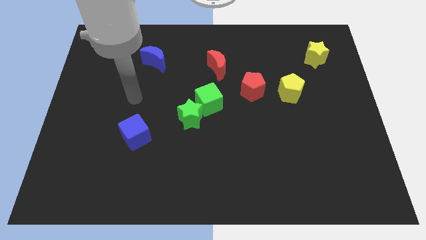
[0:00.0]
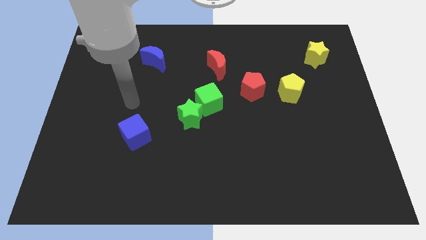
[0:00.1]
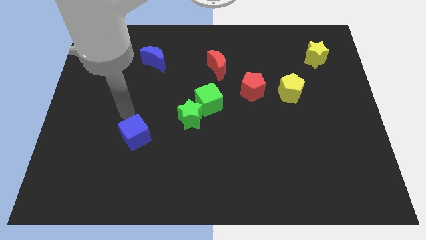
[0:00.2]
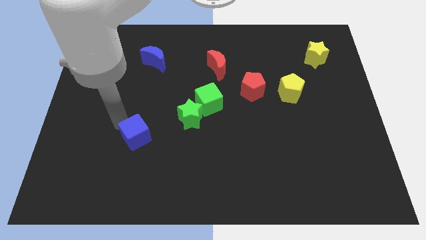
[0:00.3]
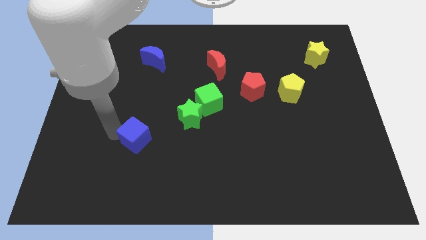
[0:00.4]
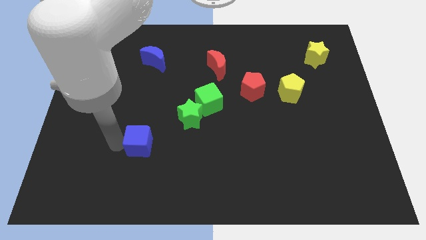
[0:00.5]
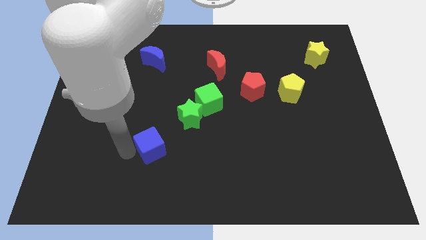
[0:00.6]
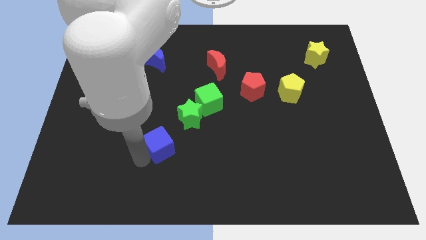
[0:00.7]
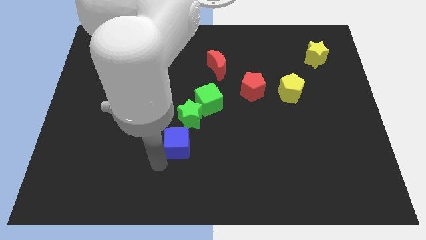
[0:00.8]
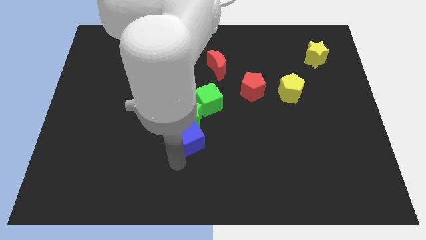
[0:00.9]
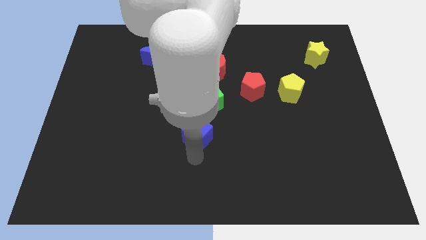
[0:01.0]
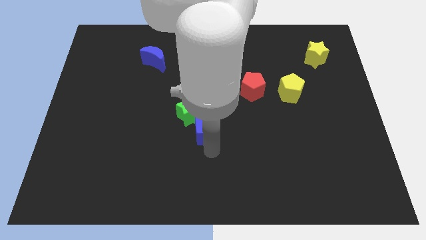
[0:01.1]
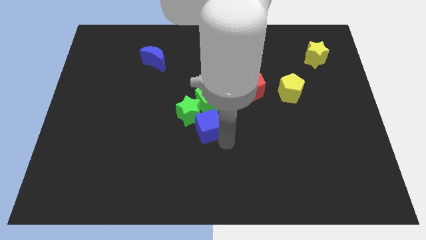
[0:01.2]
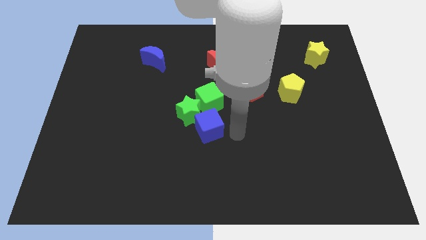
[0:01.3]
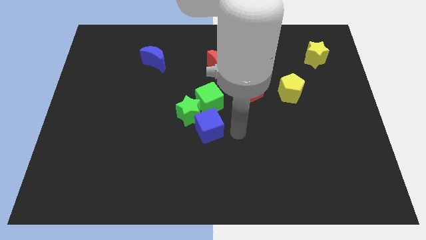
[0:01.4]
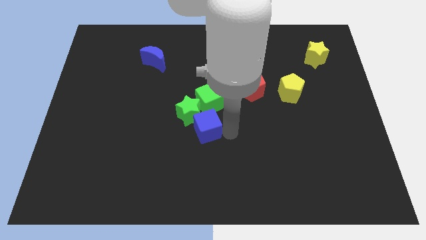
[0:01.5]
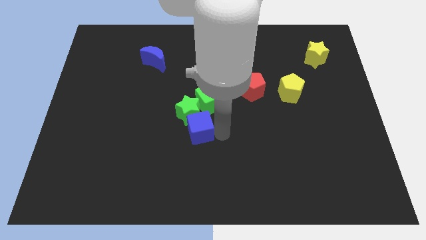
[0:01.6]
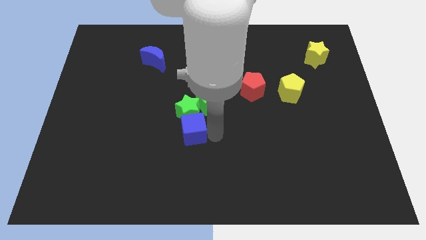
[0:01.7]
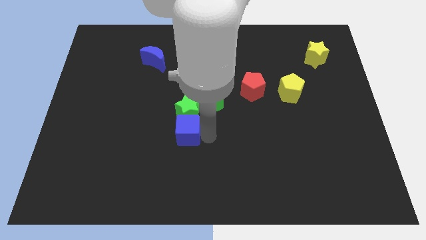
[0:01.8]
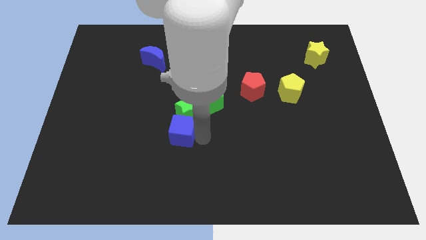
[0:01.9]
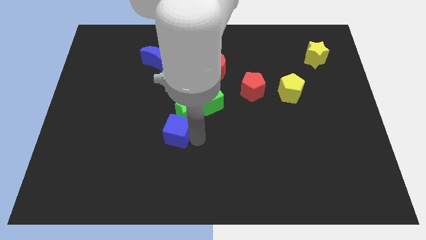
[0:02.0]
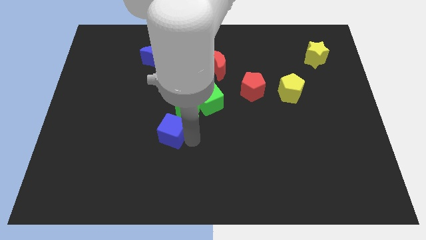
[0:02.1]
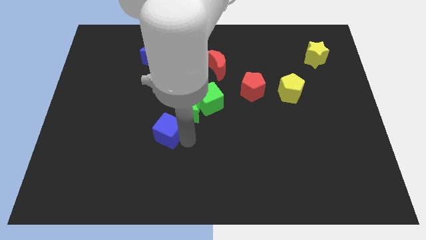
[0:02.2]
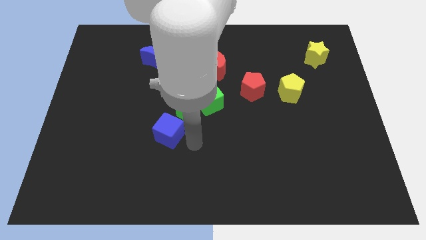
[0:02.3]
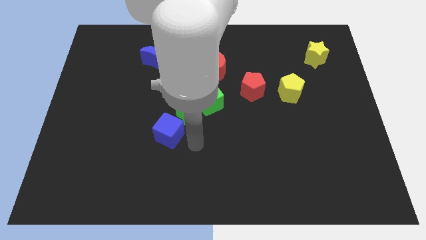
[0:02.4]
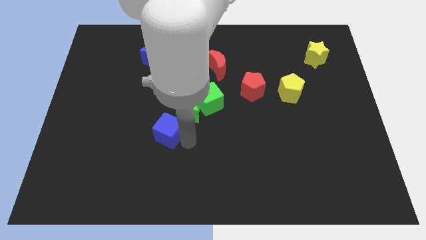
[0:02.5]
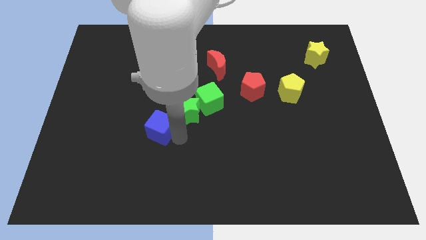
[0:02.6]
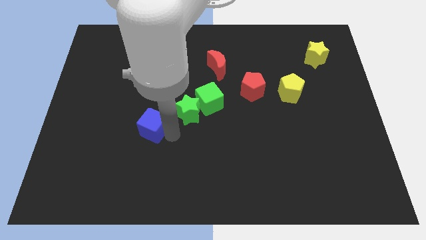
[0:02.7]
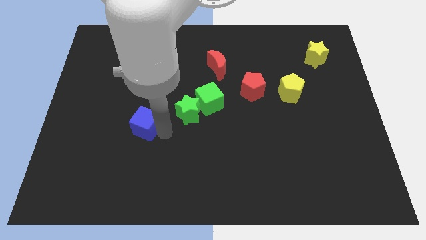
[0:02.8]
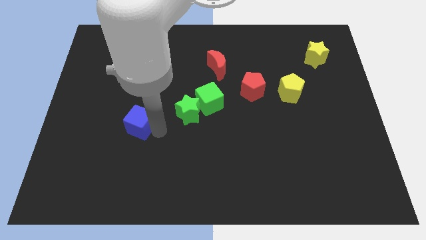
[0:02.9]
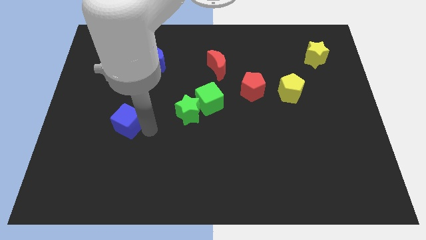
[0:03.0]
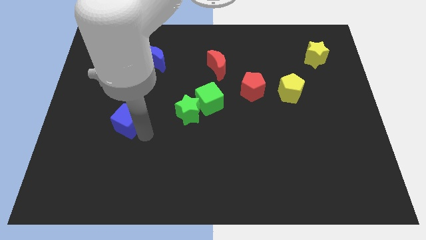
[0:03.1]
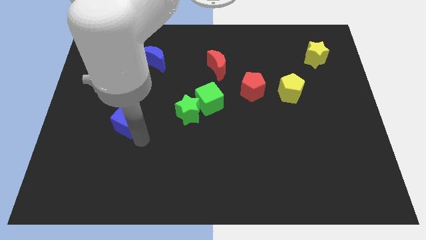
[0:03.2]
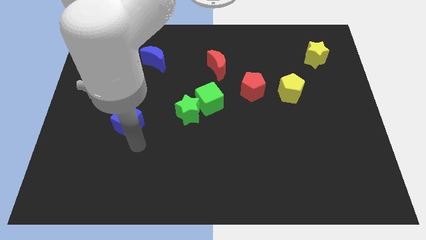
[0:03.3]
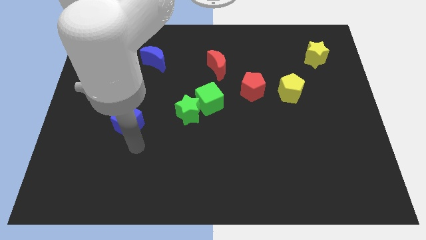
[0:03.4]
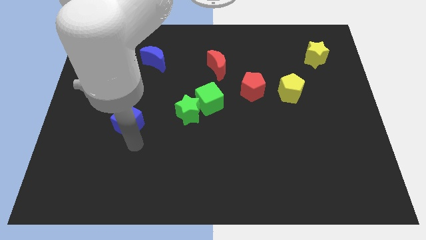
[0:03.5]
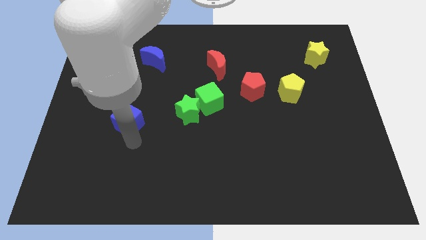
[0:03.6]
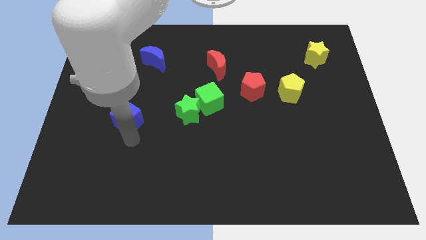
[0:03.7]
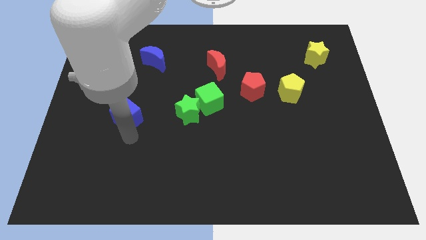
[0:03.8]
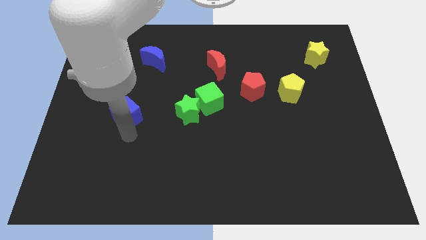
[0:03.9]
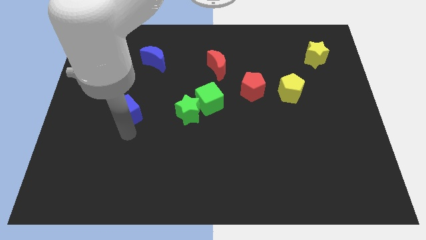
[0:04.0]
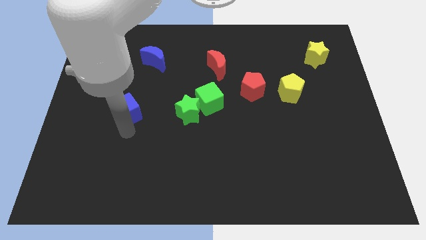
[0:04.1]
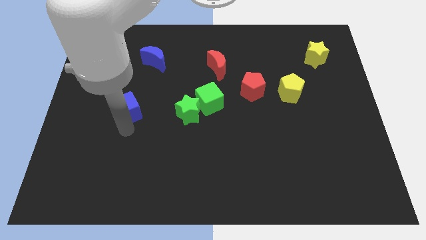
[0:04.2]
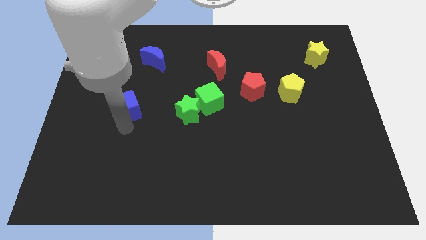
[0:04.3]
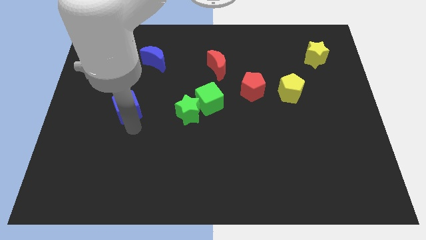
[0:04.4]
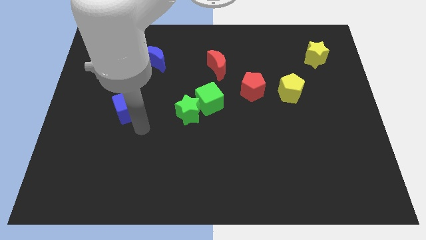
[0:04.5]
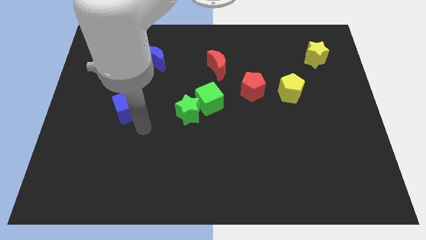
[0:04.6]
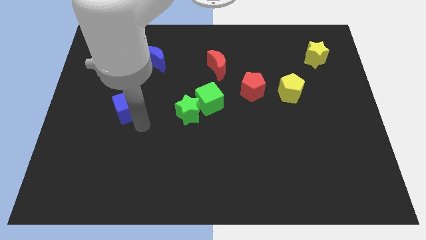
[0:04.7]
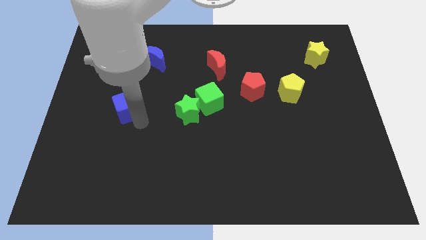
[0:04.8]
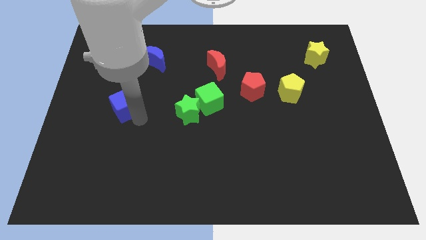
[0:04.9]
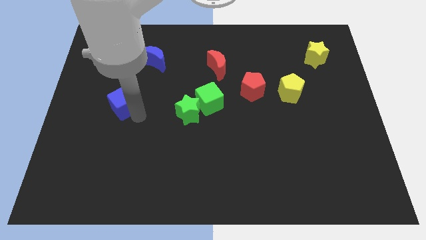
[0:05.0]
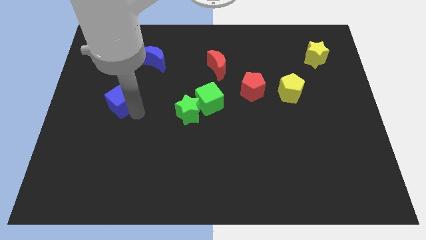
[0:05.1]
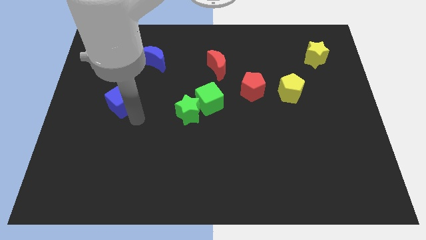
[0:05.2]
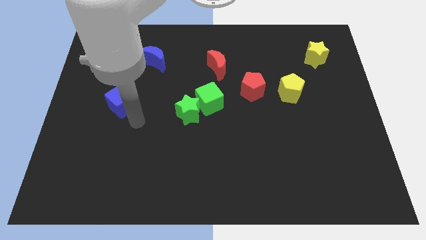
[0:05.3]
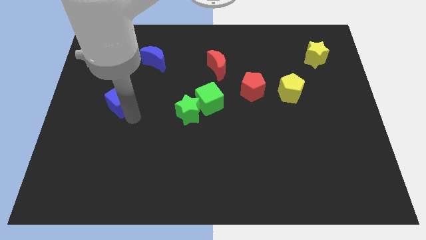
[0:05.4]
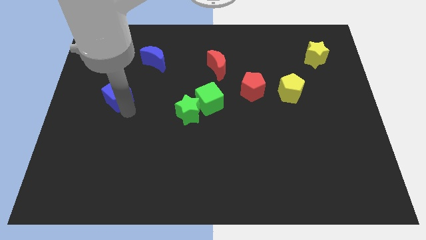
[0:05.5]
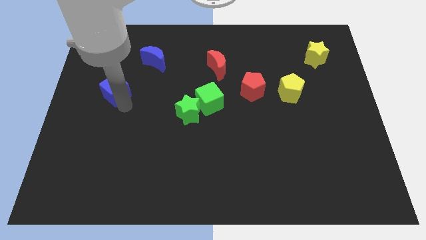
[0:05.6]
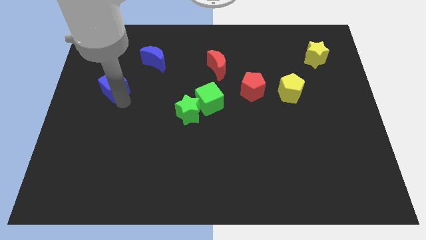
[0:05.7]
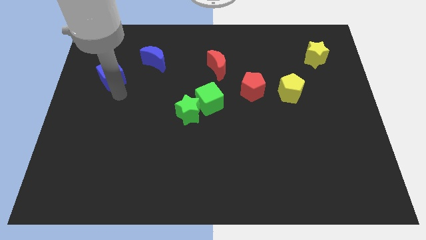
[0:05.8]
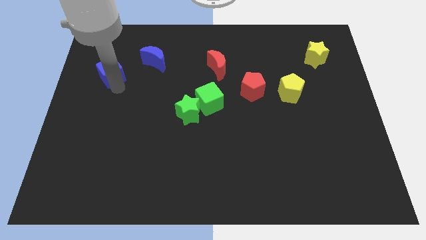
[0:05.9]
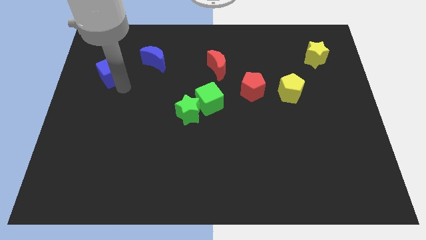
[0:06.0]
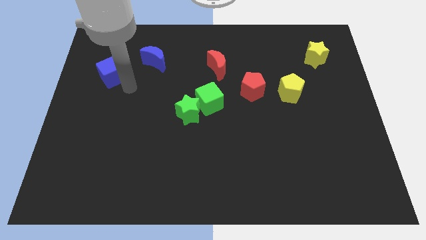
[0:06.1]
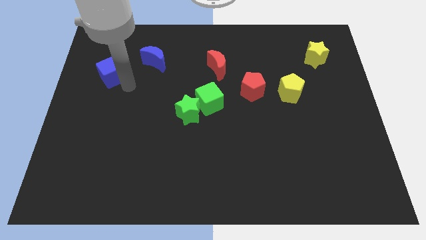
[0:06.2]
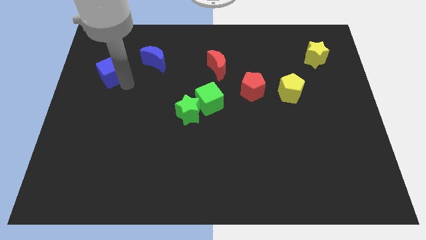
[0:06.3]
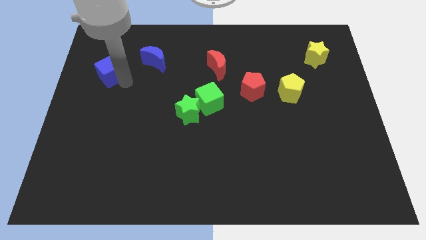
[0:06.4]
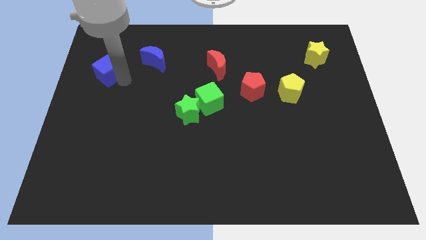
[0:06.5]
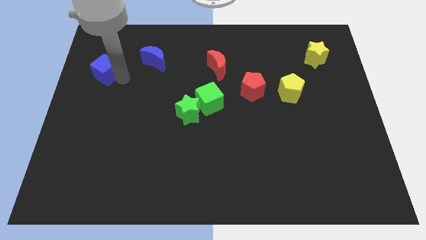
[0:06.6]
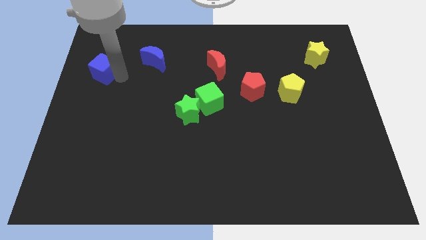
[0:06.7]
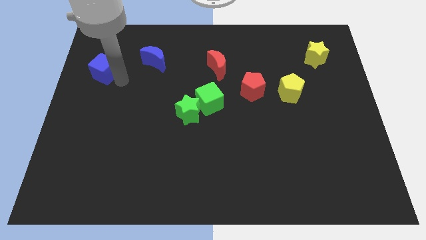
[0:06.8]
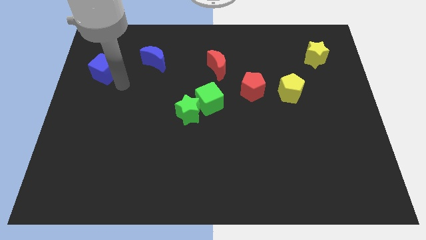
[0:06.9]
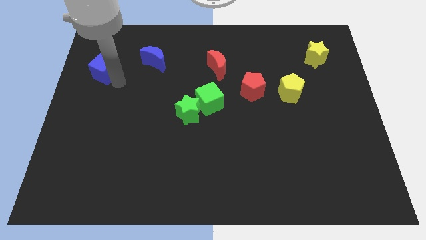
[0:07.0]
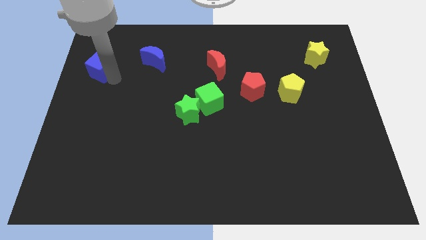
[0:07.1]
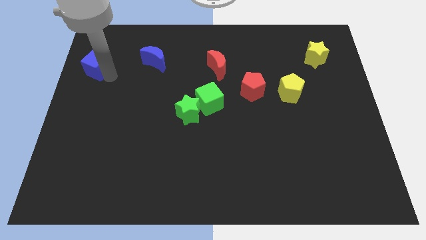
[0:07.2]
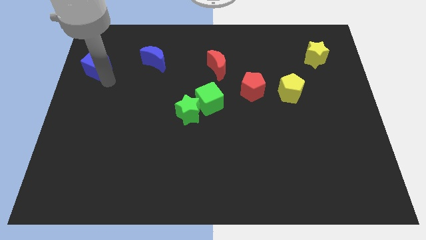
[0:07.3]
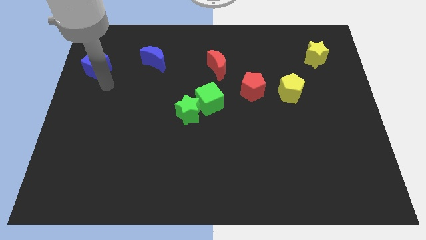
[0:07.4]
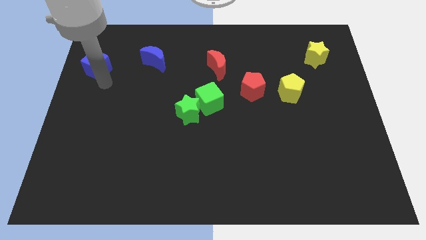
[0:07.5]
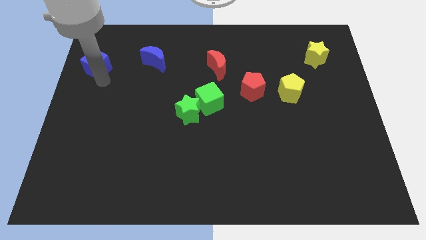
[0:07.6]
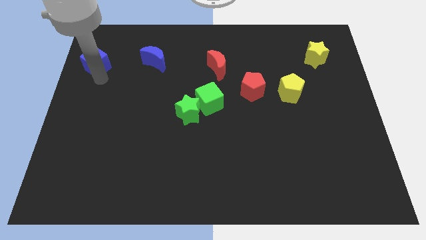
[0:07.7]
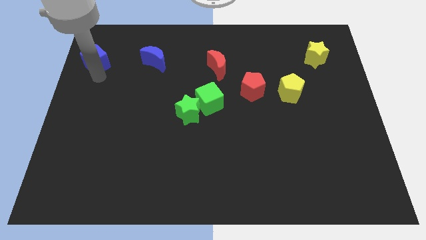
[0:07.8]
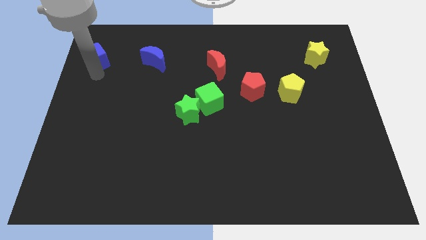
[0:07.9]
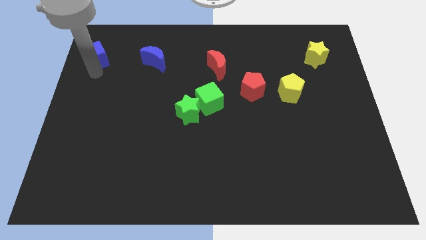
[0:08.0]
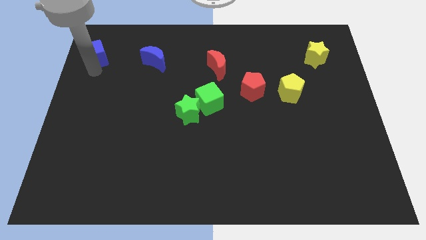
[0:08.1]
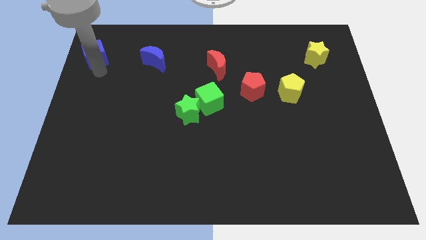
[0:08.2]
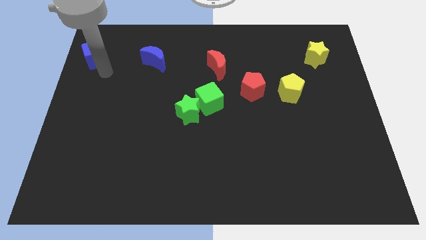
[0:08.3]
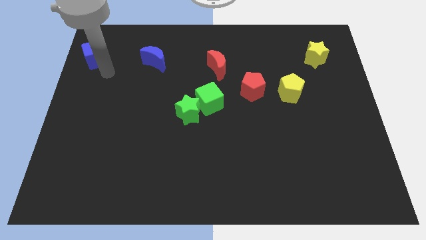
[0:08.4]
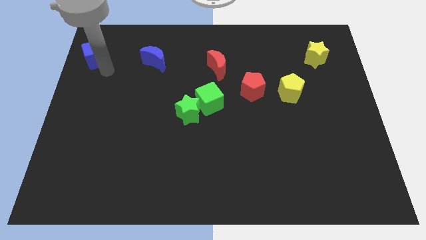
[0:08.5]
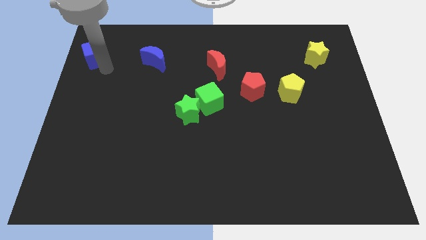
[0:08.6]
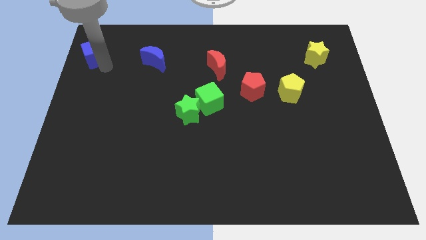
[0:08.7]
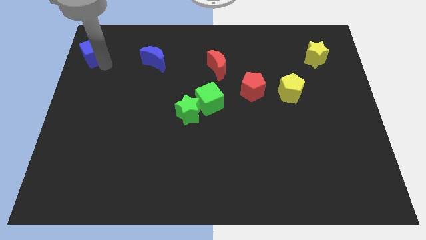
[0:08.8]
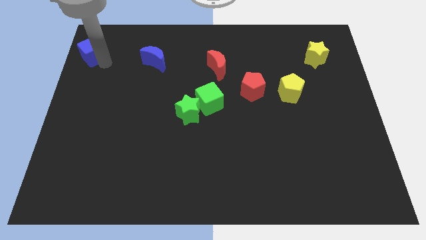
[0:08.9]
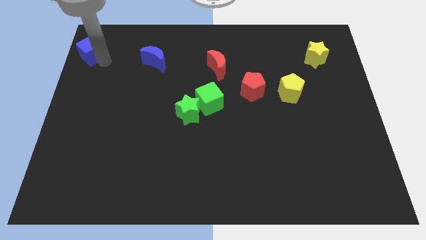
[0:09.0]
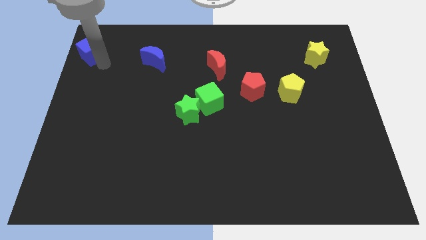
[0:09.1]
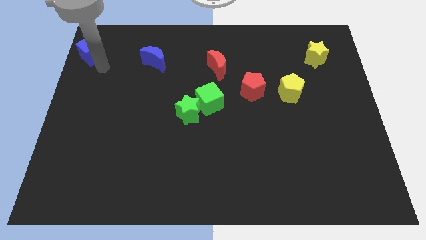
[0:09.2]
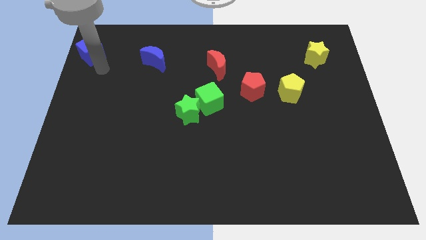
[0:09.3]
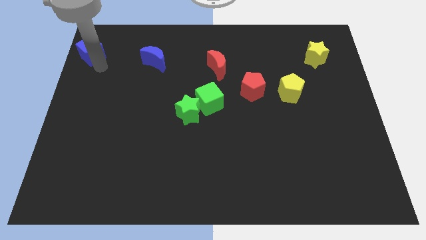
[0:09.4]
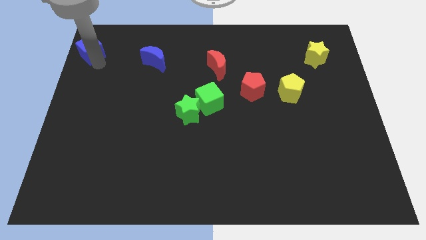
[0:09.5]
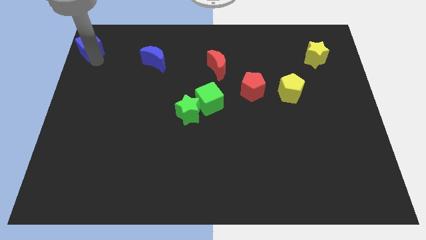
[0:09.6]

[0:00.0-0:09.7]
slide the blue cube to the top left
